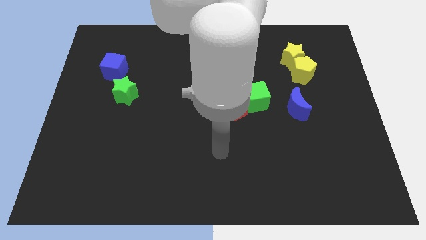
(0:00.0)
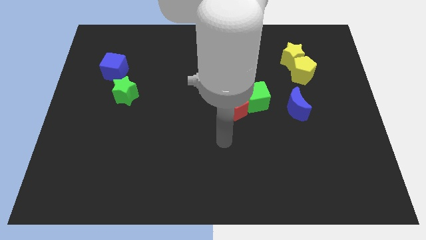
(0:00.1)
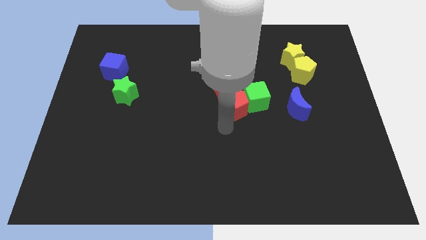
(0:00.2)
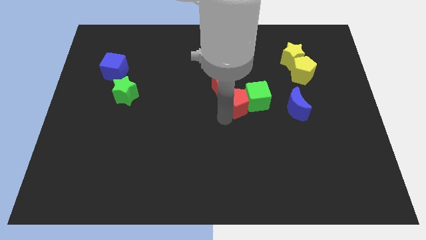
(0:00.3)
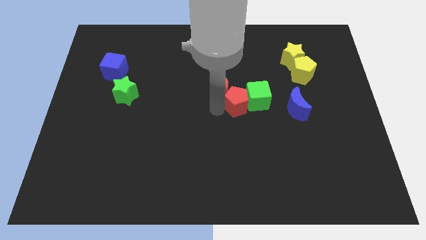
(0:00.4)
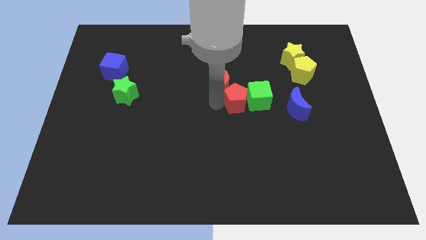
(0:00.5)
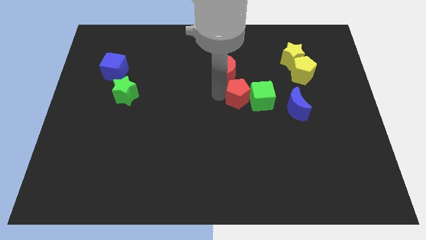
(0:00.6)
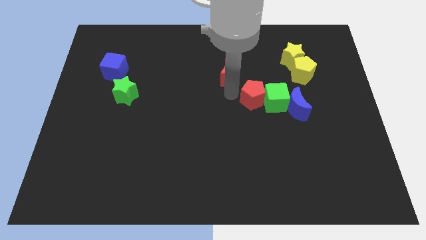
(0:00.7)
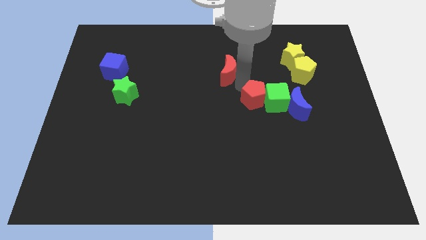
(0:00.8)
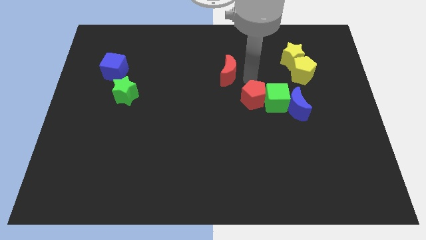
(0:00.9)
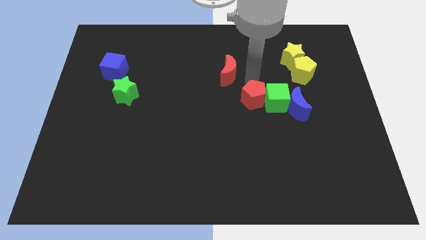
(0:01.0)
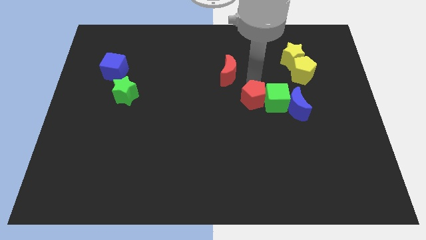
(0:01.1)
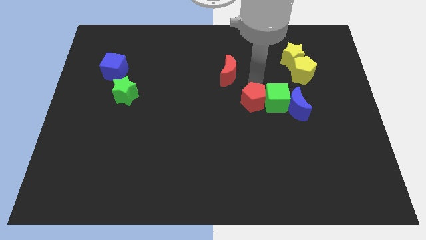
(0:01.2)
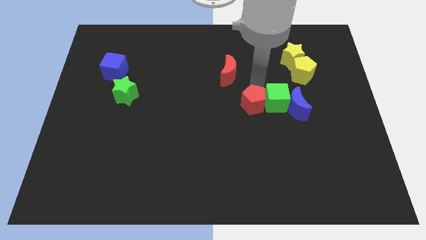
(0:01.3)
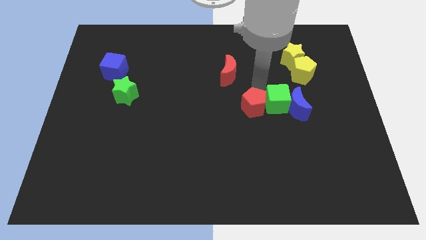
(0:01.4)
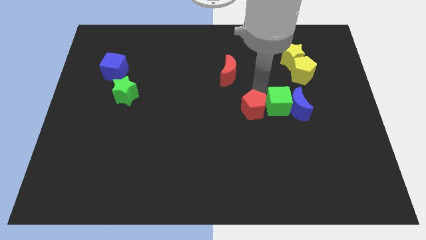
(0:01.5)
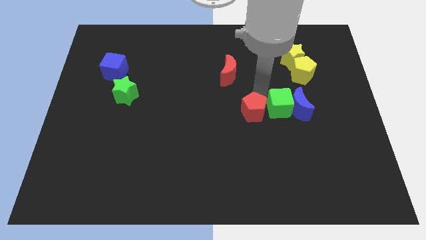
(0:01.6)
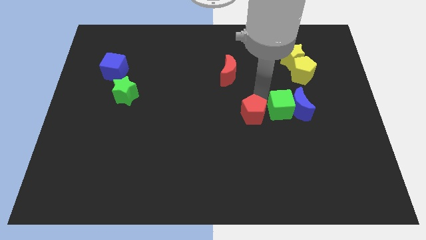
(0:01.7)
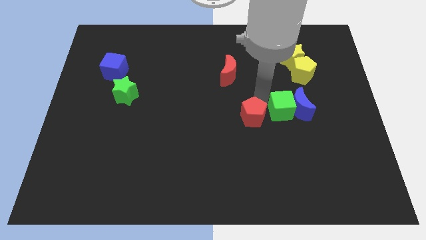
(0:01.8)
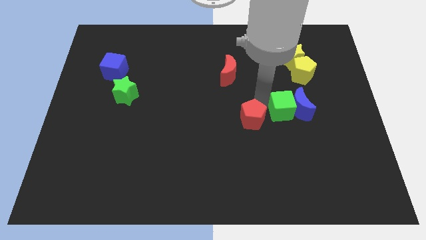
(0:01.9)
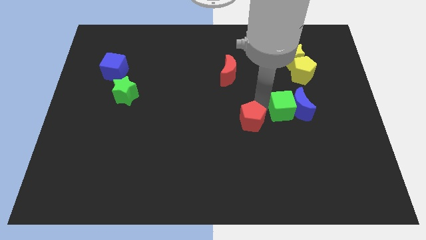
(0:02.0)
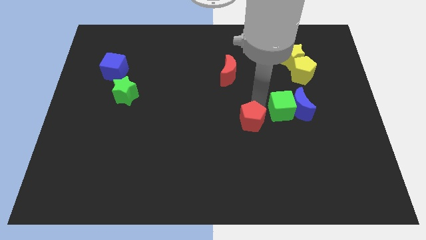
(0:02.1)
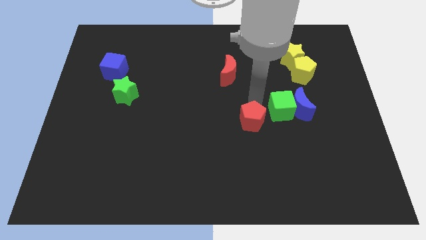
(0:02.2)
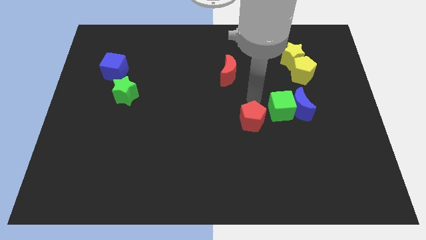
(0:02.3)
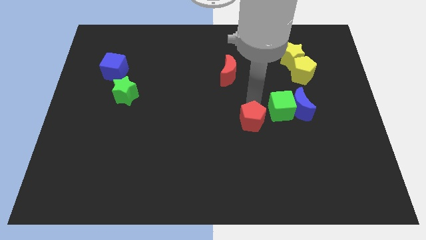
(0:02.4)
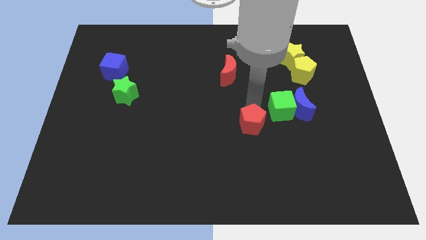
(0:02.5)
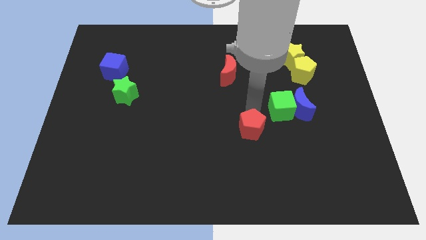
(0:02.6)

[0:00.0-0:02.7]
separate the red pentagon from the green cube and red moon

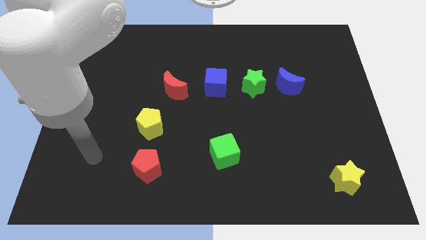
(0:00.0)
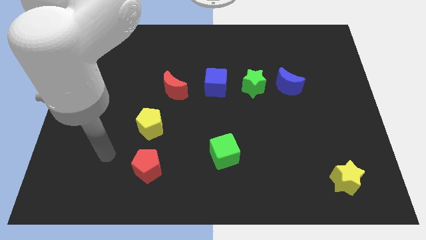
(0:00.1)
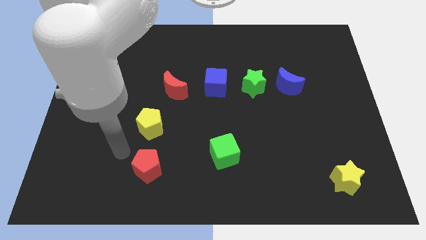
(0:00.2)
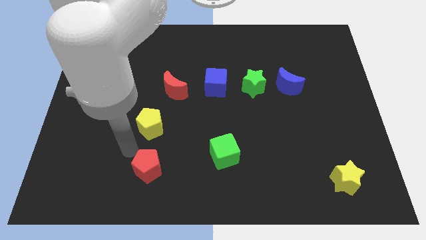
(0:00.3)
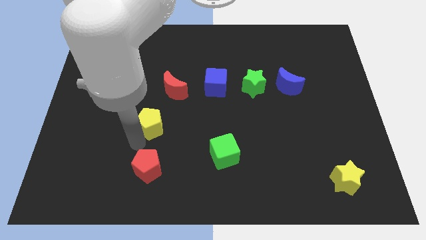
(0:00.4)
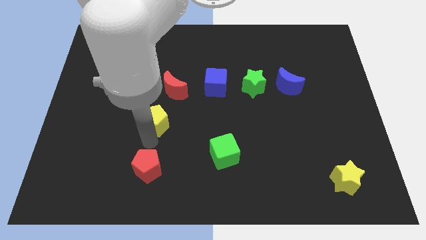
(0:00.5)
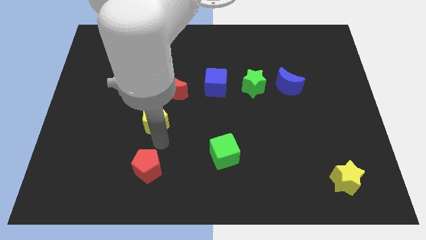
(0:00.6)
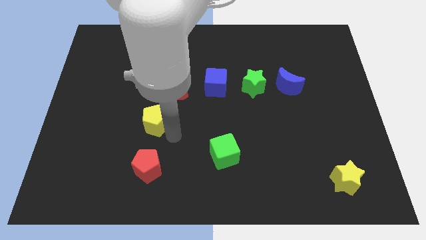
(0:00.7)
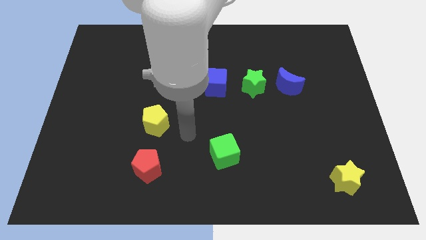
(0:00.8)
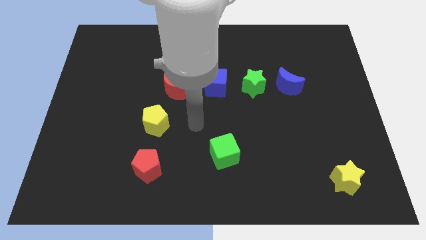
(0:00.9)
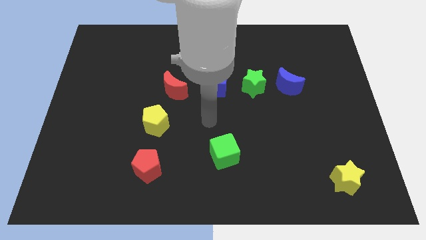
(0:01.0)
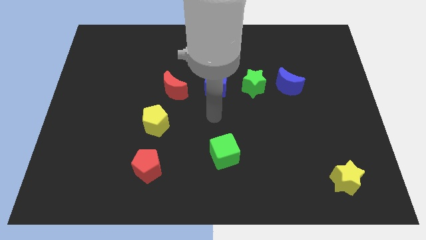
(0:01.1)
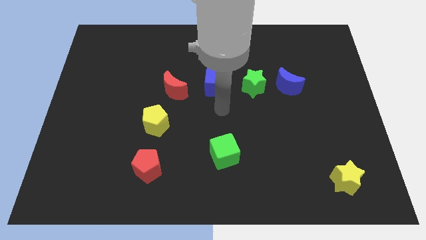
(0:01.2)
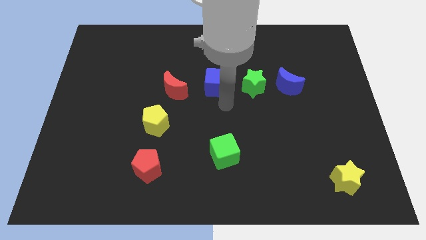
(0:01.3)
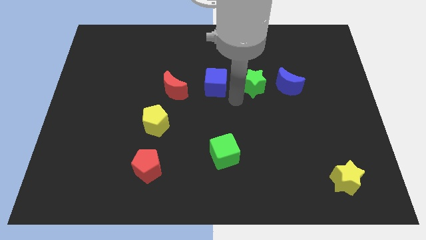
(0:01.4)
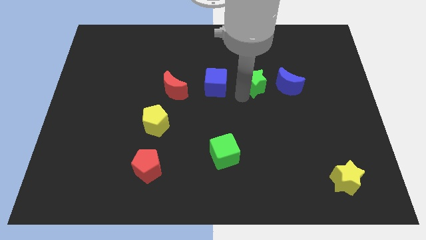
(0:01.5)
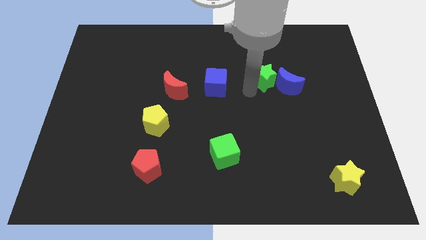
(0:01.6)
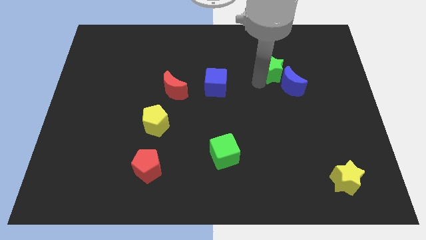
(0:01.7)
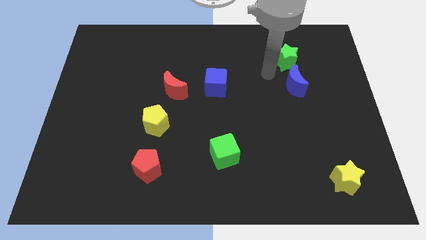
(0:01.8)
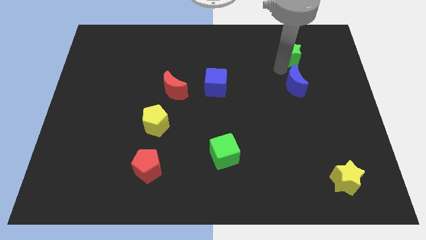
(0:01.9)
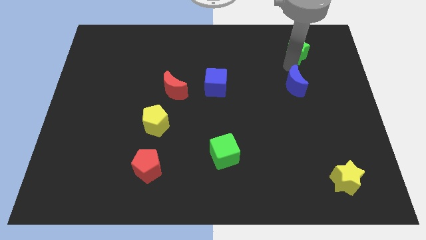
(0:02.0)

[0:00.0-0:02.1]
move the blue moon away from the green star

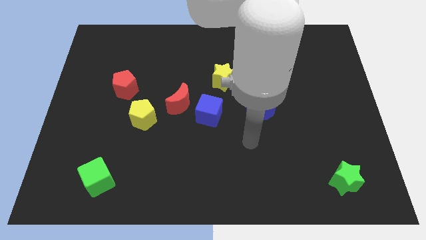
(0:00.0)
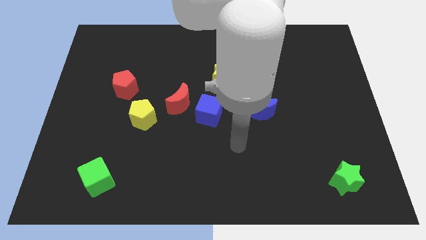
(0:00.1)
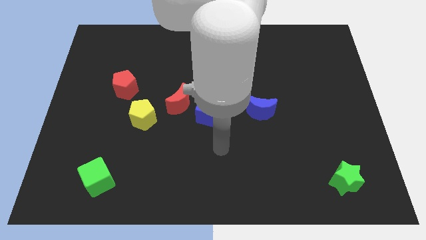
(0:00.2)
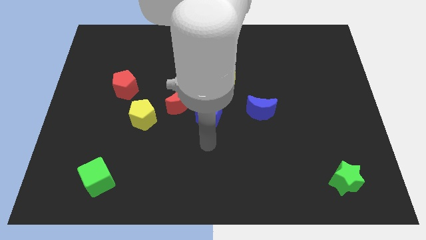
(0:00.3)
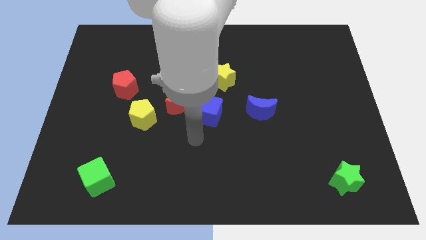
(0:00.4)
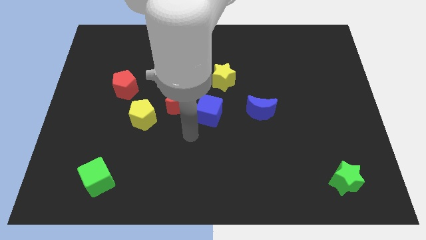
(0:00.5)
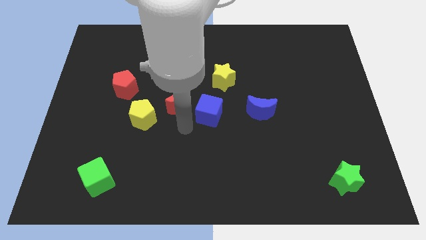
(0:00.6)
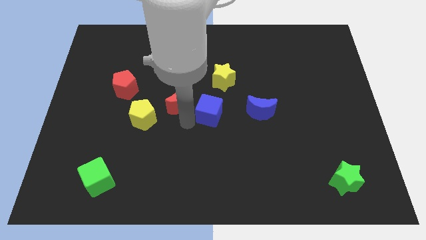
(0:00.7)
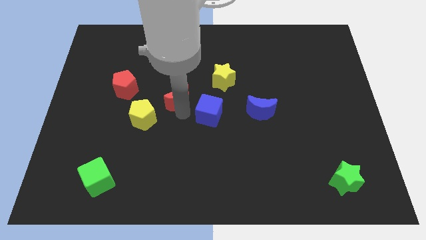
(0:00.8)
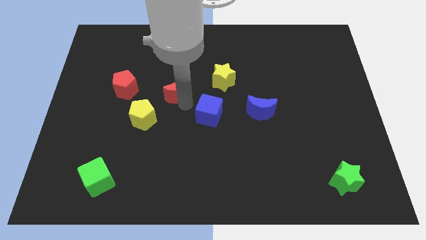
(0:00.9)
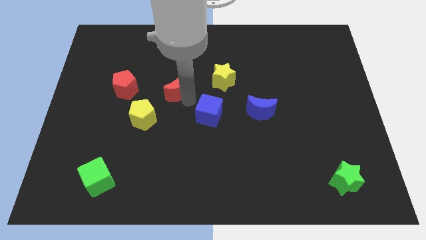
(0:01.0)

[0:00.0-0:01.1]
pull the blue cube apart from the red moon

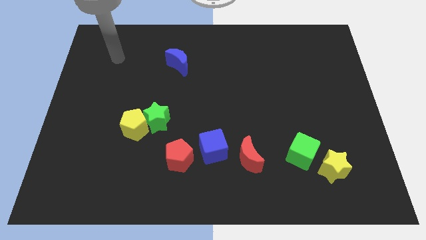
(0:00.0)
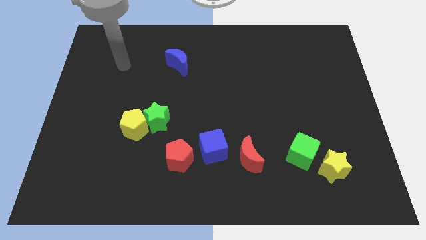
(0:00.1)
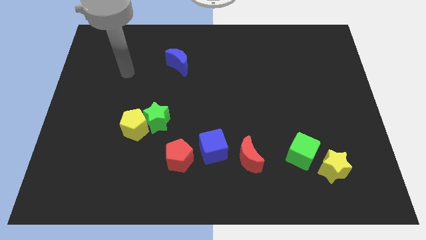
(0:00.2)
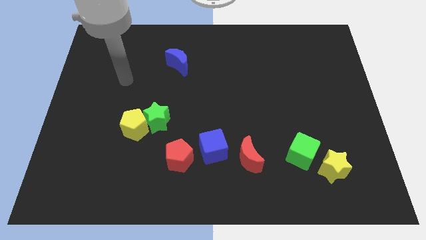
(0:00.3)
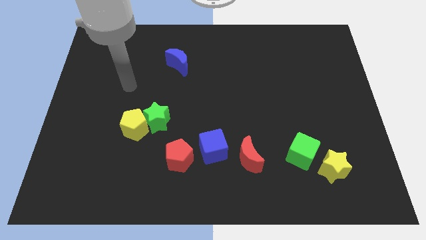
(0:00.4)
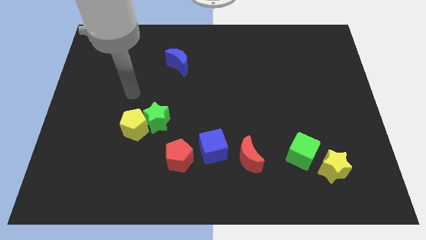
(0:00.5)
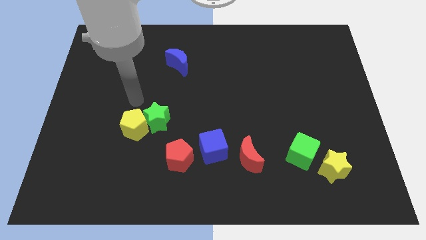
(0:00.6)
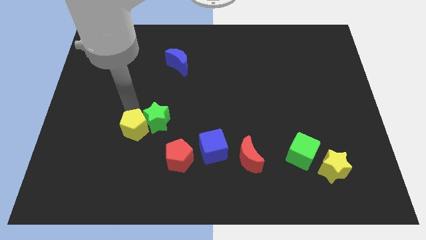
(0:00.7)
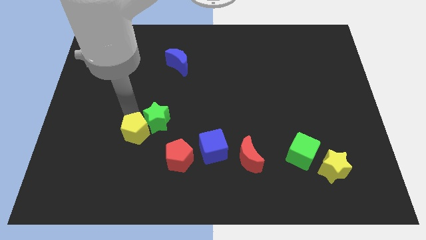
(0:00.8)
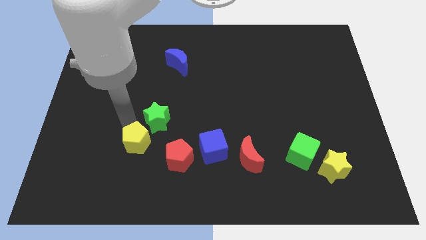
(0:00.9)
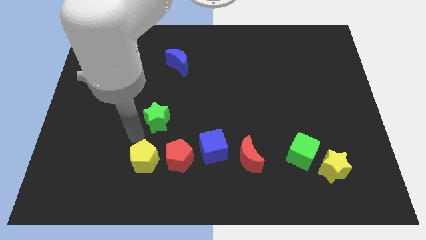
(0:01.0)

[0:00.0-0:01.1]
pull the green star apart from the yellow pentagon

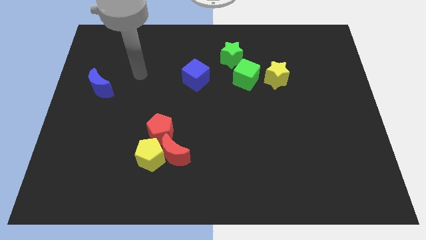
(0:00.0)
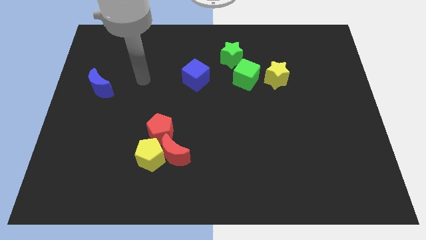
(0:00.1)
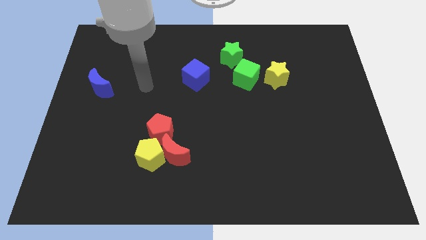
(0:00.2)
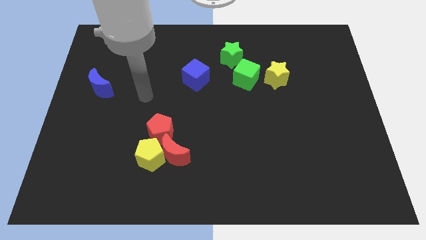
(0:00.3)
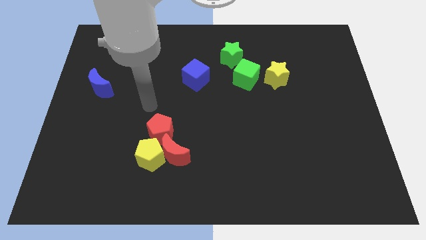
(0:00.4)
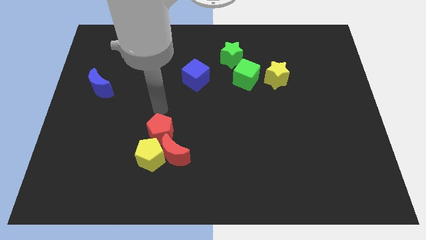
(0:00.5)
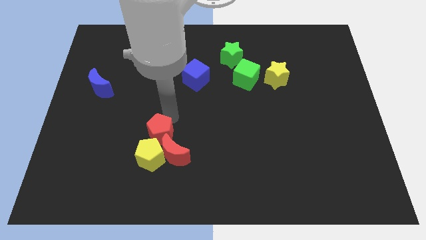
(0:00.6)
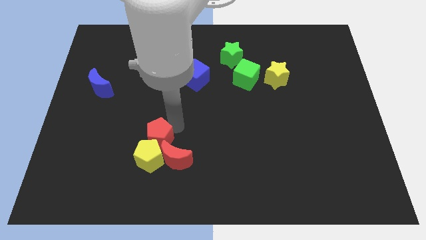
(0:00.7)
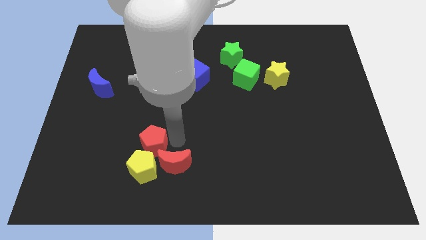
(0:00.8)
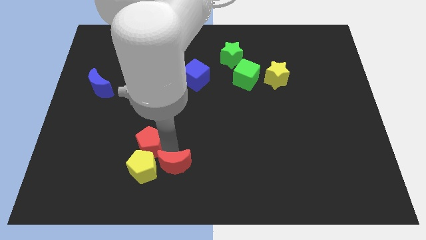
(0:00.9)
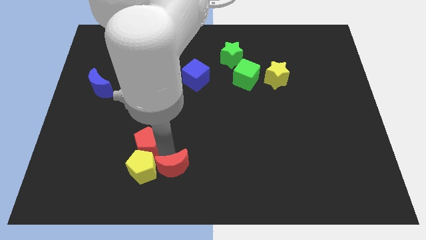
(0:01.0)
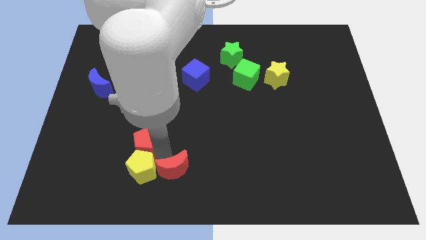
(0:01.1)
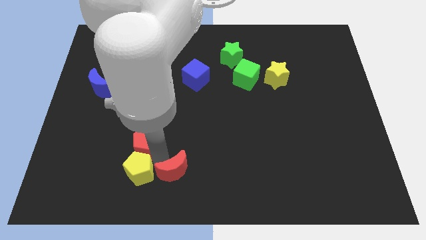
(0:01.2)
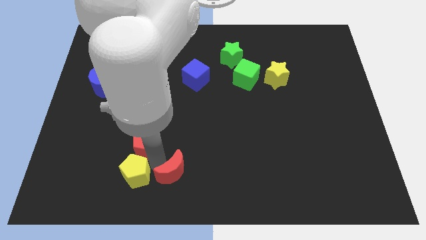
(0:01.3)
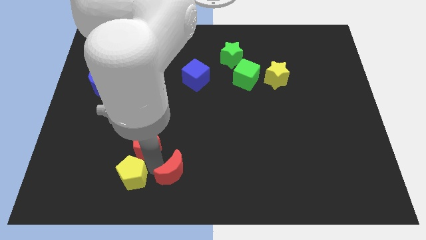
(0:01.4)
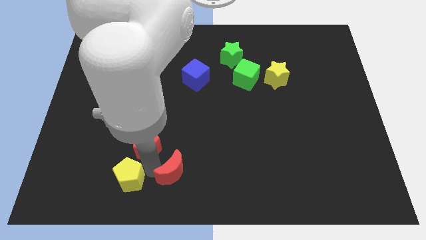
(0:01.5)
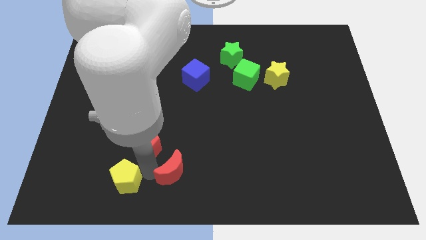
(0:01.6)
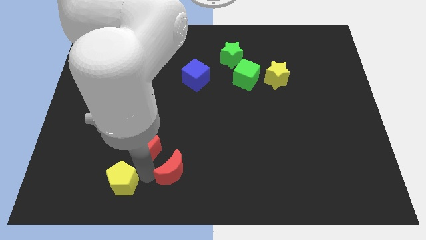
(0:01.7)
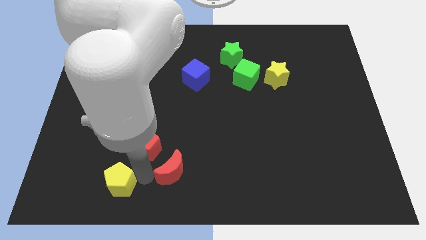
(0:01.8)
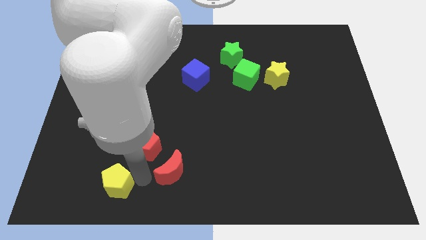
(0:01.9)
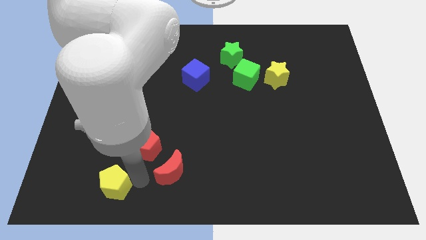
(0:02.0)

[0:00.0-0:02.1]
move the yellow pentagon away from the red moon and red pentagon

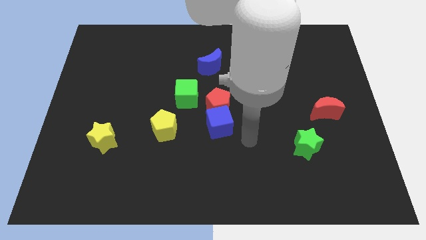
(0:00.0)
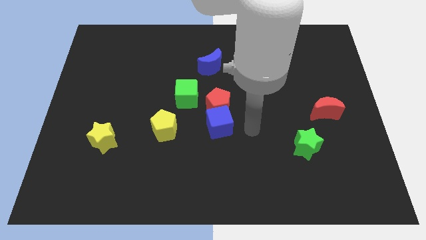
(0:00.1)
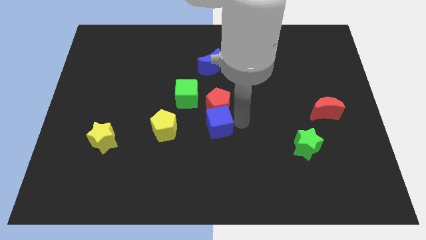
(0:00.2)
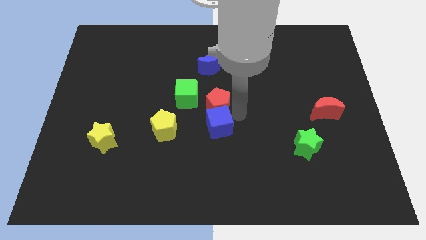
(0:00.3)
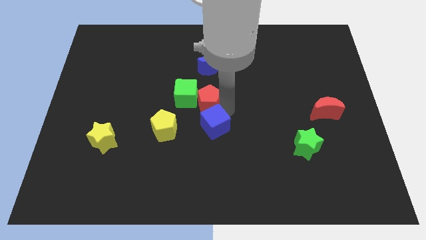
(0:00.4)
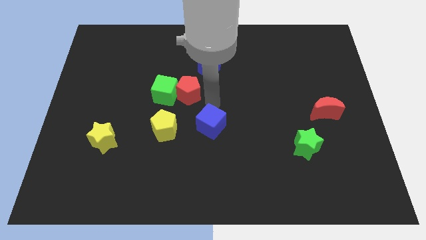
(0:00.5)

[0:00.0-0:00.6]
move the blue cube away from the red pentagon
